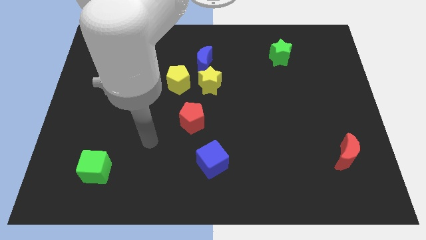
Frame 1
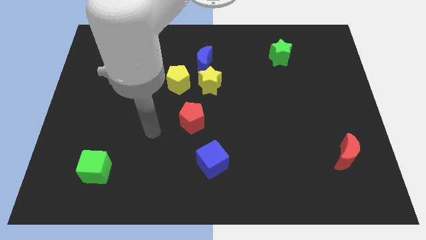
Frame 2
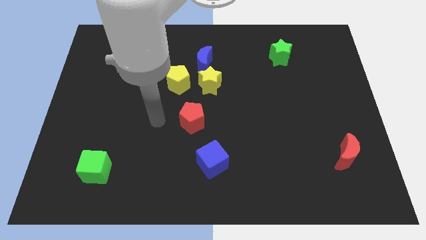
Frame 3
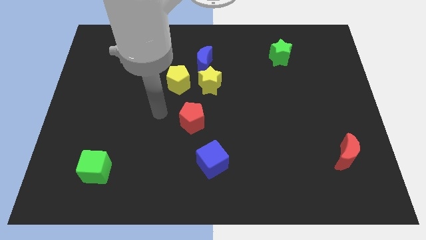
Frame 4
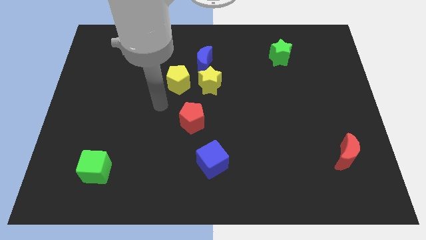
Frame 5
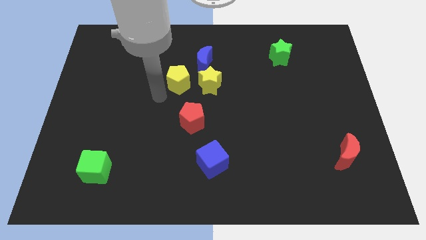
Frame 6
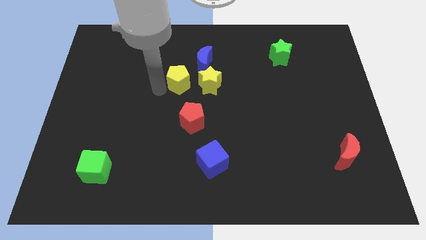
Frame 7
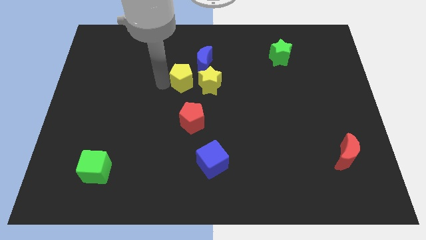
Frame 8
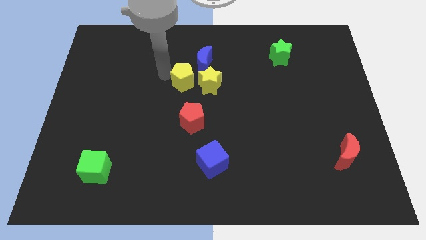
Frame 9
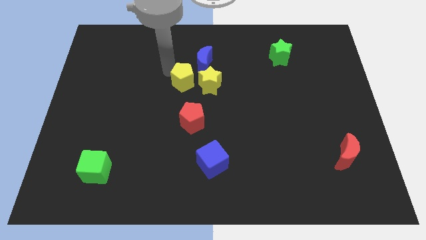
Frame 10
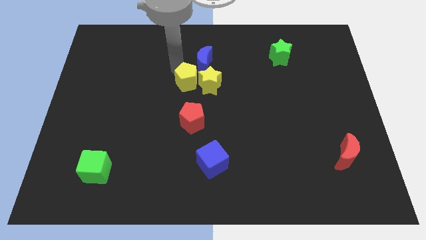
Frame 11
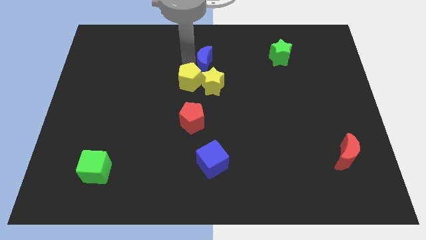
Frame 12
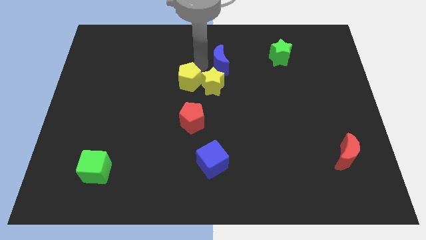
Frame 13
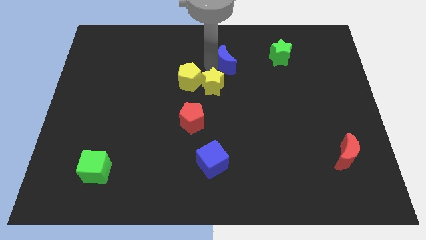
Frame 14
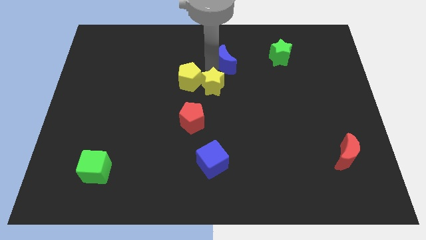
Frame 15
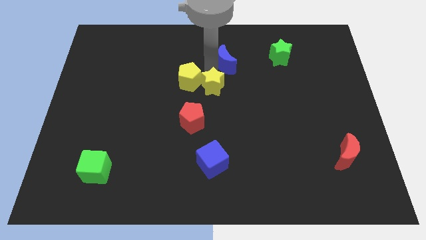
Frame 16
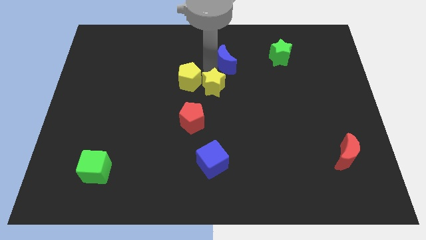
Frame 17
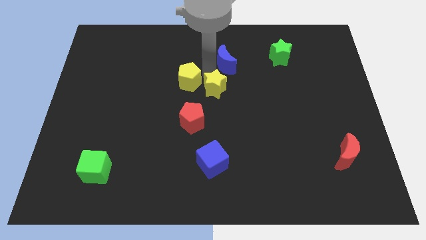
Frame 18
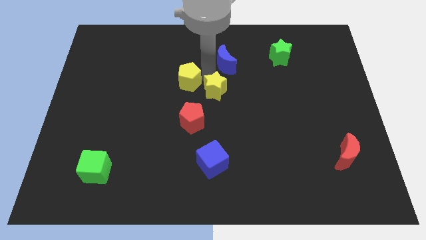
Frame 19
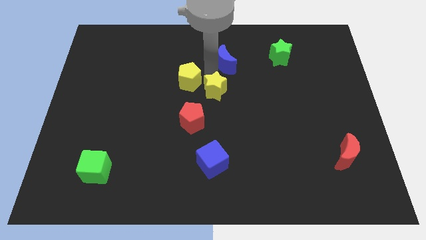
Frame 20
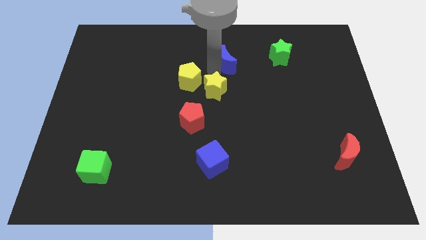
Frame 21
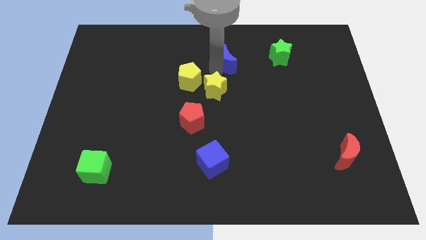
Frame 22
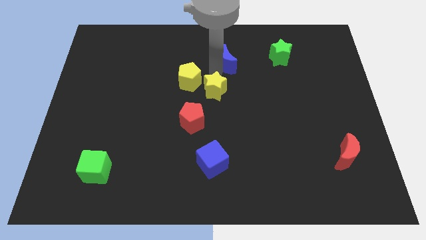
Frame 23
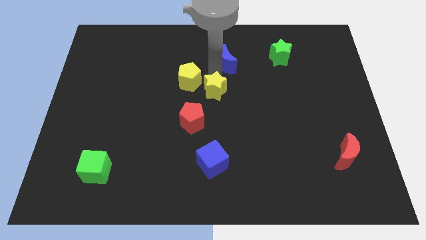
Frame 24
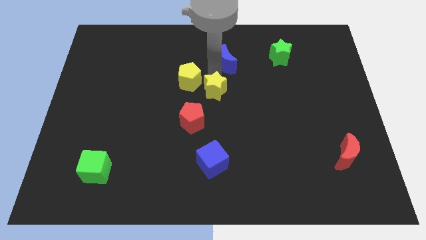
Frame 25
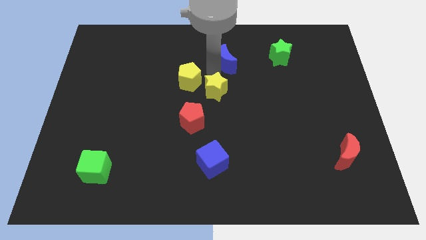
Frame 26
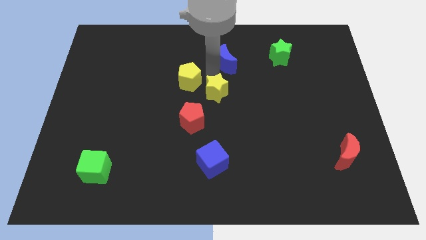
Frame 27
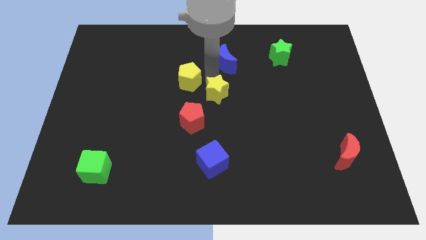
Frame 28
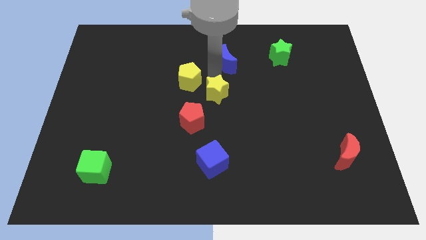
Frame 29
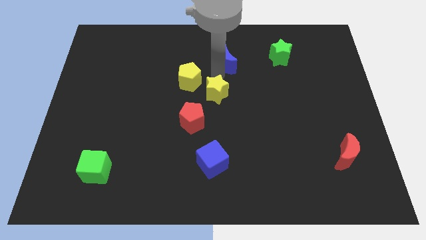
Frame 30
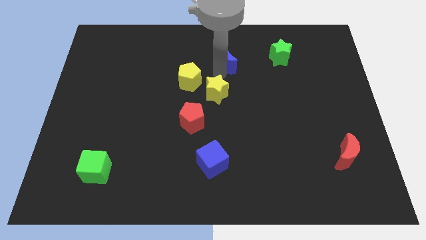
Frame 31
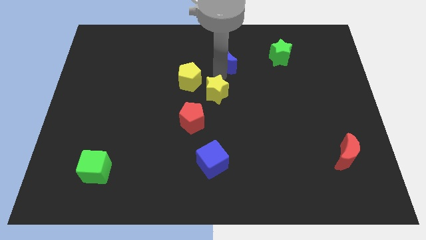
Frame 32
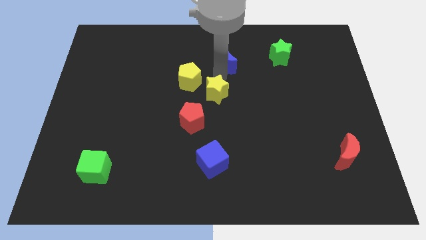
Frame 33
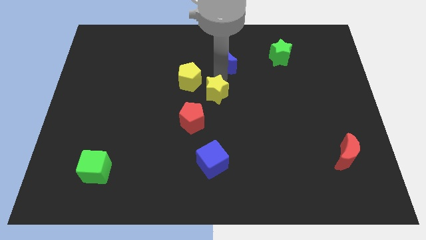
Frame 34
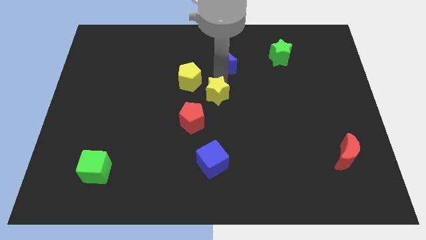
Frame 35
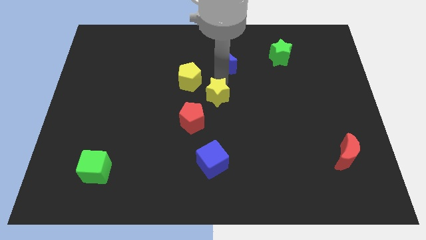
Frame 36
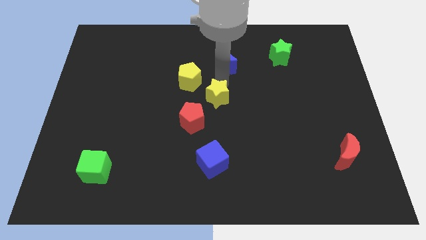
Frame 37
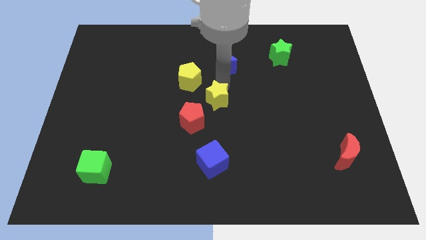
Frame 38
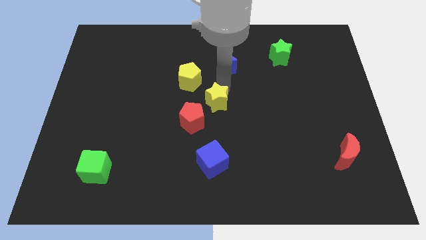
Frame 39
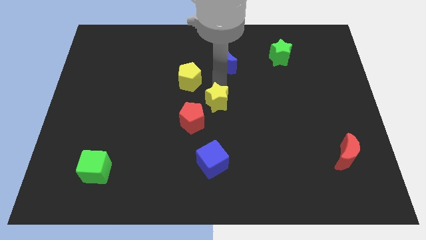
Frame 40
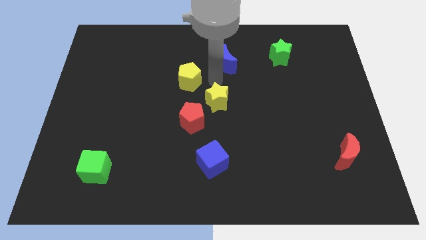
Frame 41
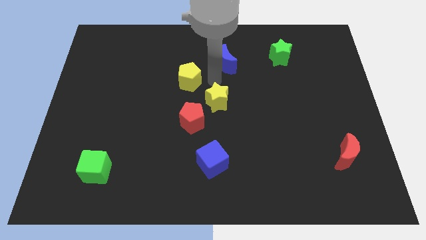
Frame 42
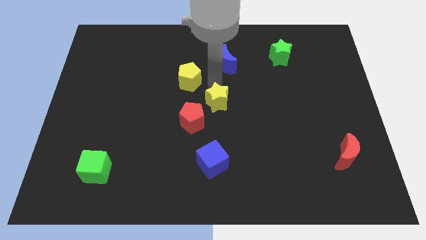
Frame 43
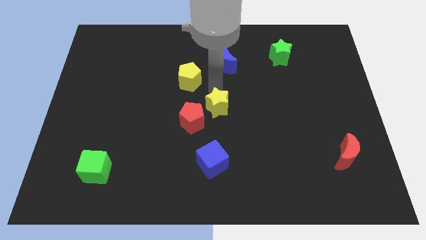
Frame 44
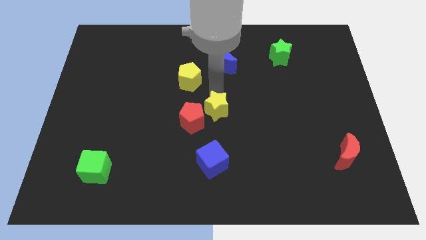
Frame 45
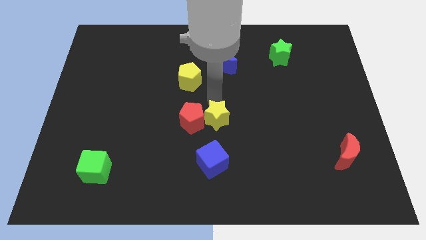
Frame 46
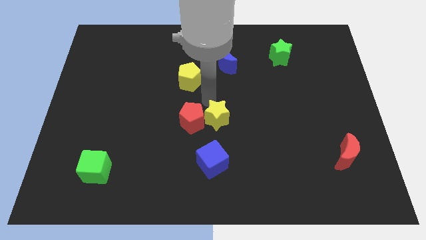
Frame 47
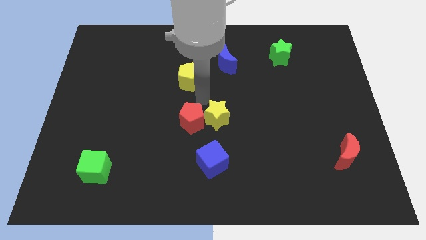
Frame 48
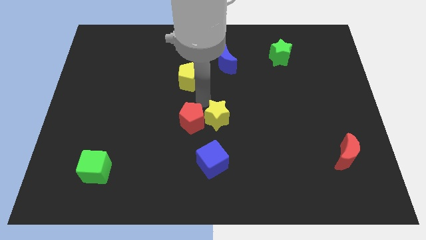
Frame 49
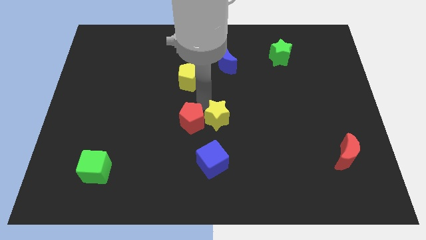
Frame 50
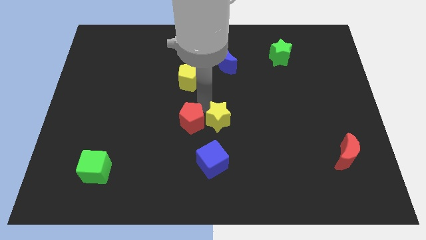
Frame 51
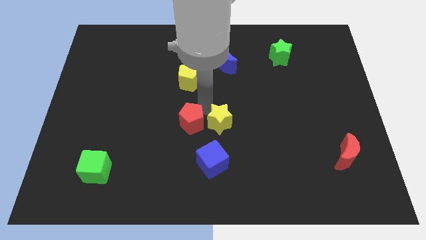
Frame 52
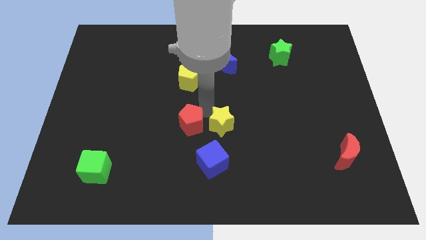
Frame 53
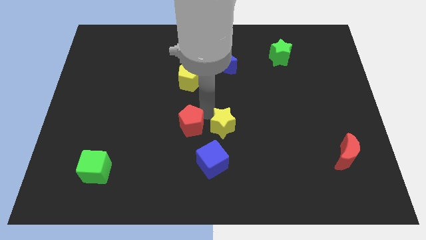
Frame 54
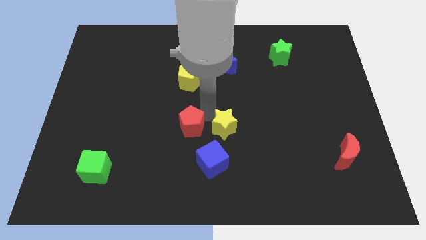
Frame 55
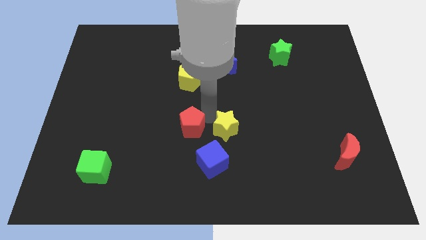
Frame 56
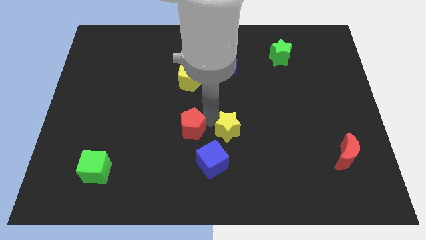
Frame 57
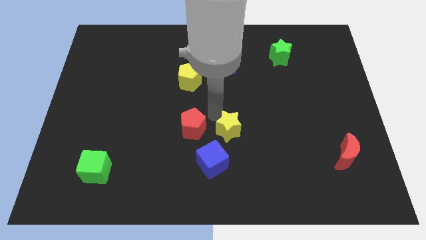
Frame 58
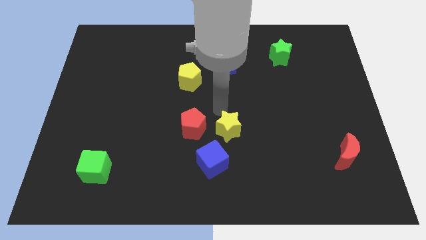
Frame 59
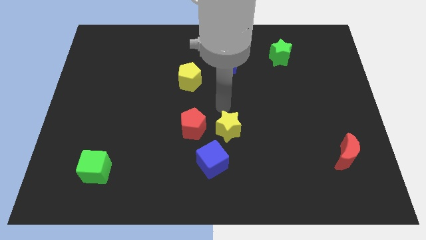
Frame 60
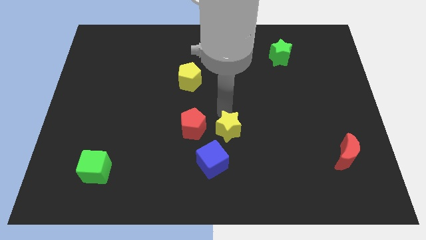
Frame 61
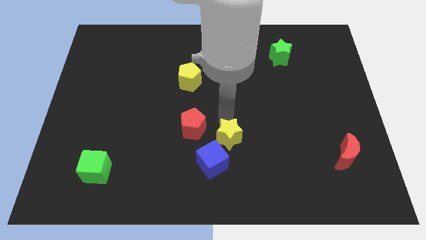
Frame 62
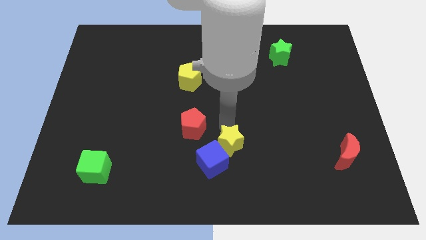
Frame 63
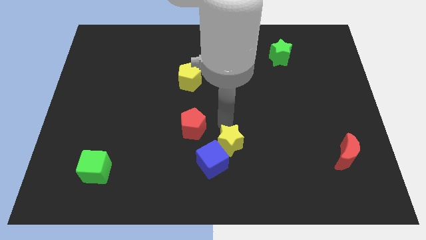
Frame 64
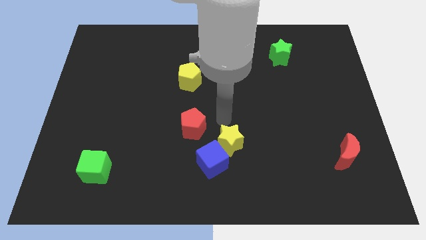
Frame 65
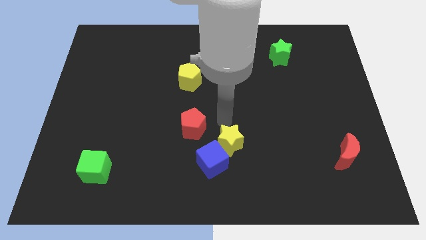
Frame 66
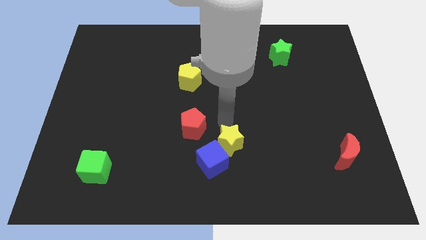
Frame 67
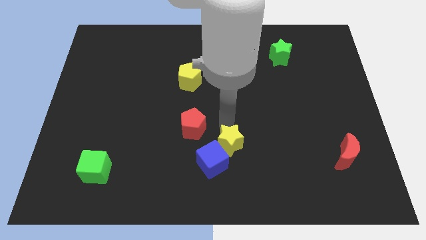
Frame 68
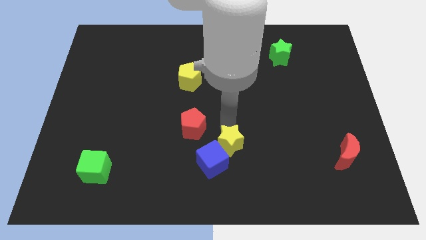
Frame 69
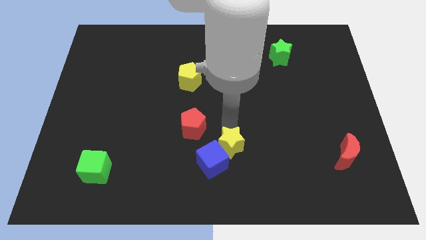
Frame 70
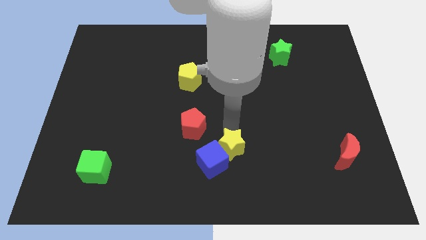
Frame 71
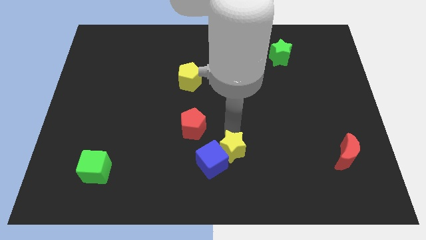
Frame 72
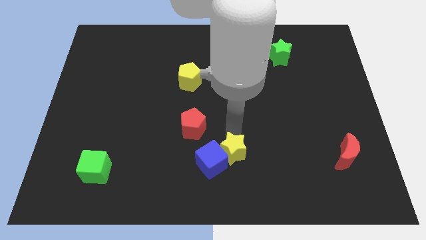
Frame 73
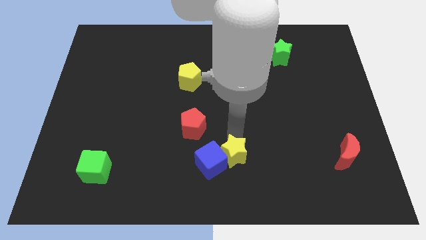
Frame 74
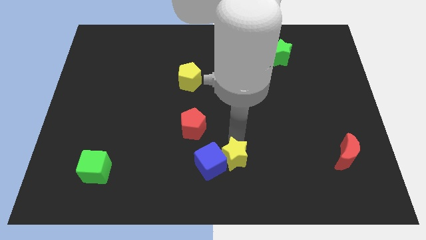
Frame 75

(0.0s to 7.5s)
push the yellow star to the bottom
